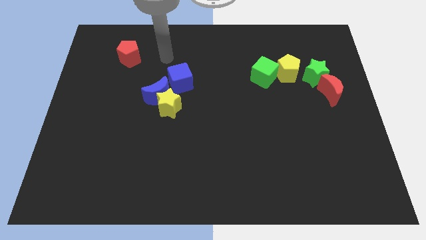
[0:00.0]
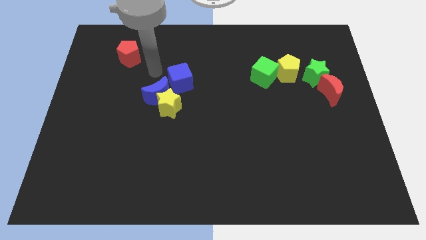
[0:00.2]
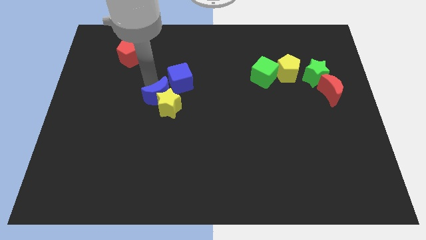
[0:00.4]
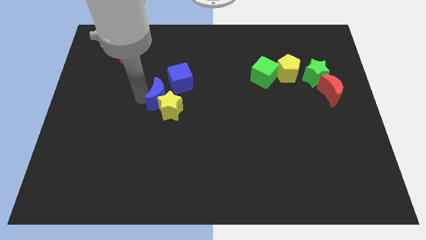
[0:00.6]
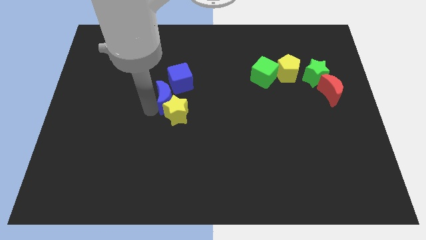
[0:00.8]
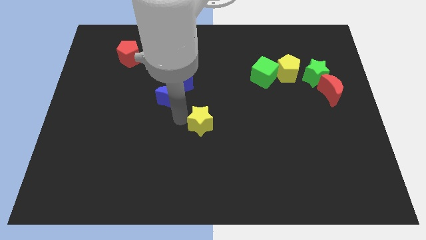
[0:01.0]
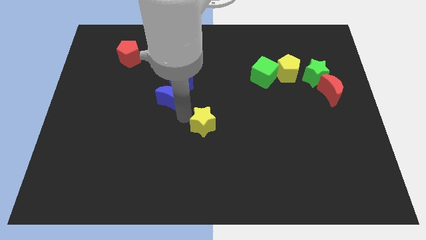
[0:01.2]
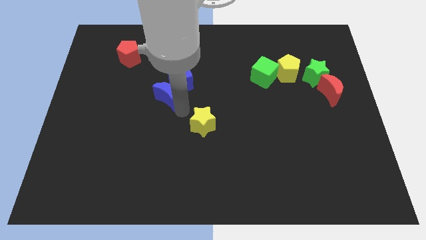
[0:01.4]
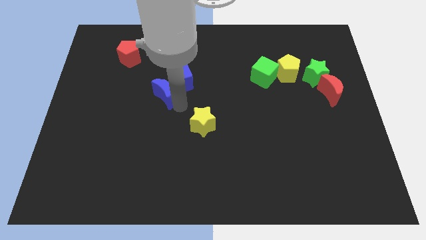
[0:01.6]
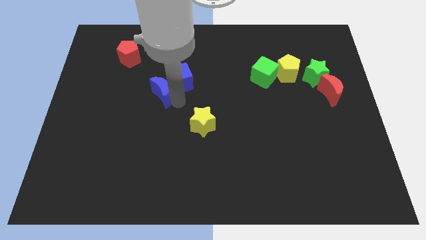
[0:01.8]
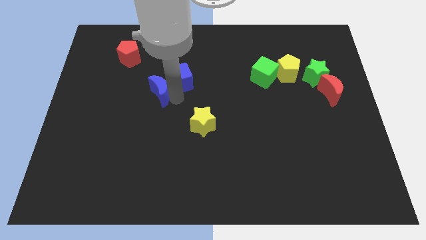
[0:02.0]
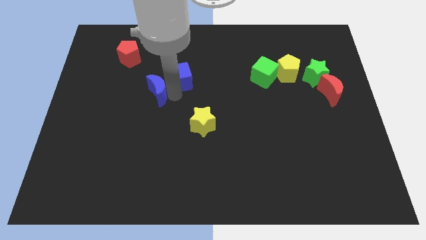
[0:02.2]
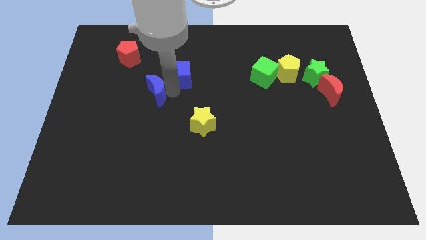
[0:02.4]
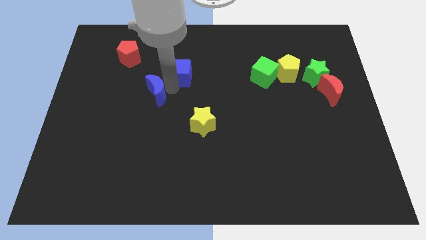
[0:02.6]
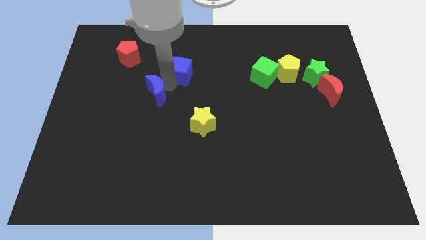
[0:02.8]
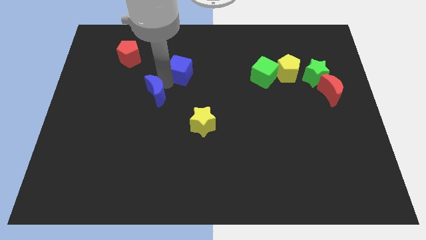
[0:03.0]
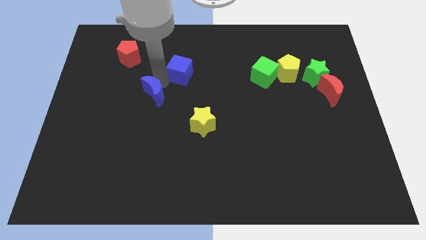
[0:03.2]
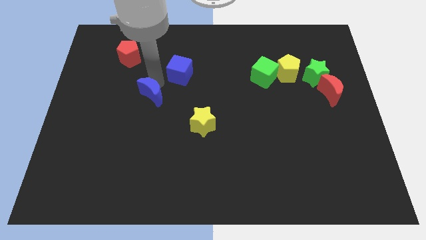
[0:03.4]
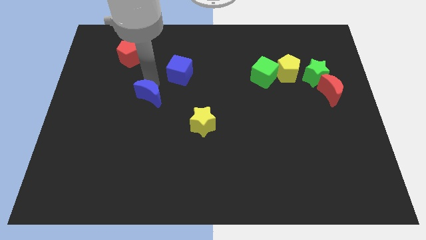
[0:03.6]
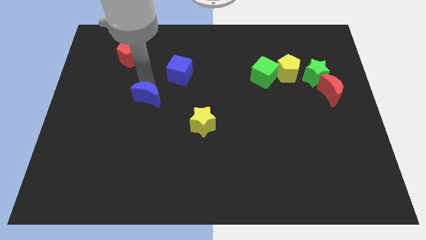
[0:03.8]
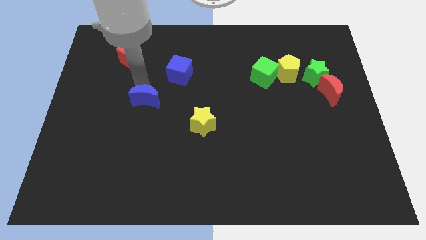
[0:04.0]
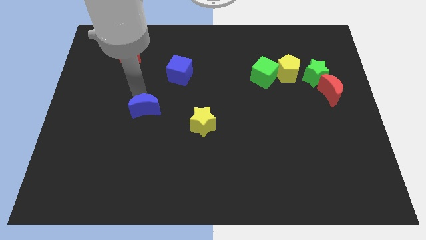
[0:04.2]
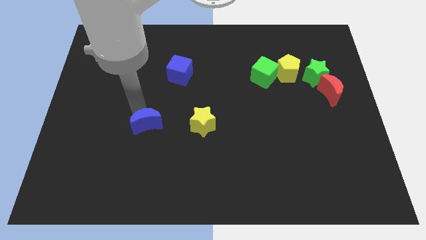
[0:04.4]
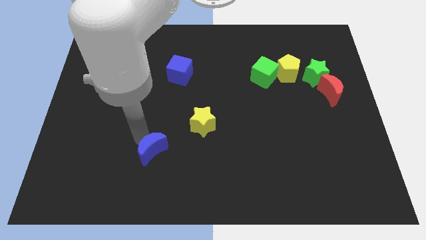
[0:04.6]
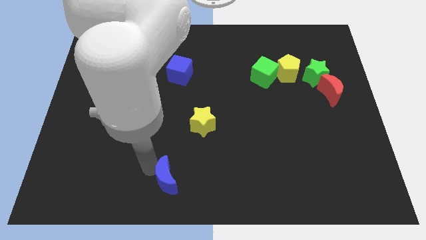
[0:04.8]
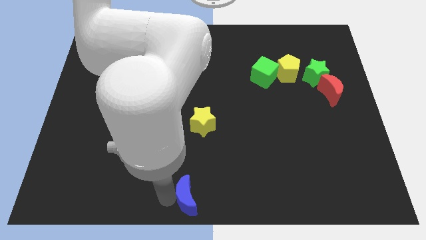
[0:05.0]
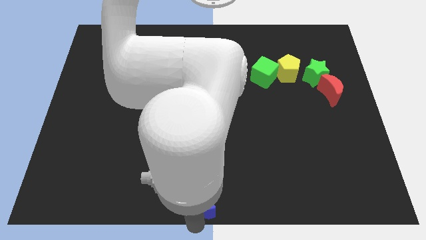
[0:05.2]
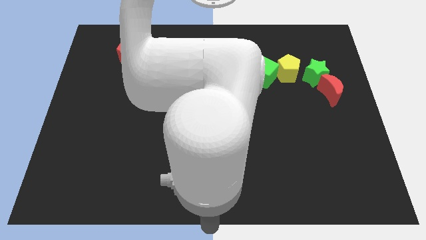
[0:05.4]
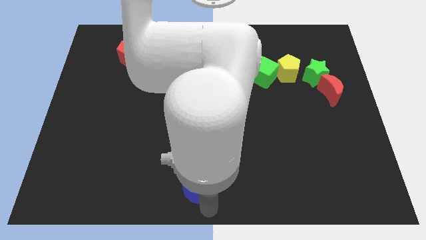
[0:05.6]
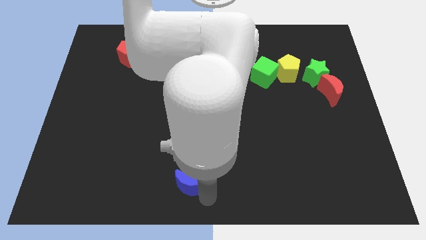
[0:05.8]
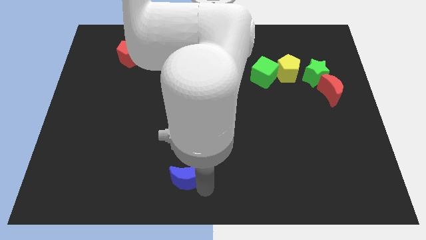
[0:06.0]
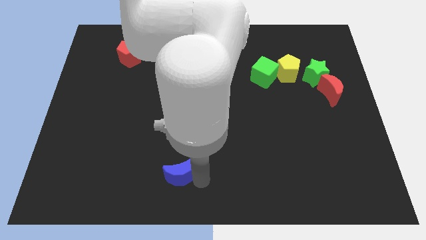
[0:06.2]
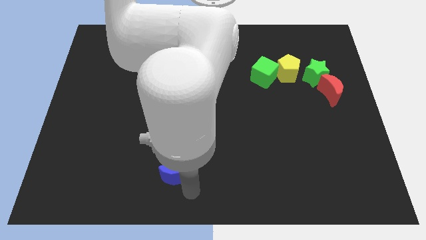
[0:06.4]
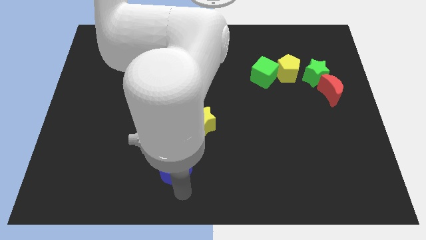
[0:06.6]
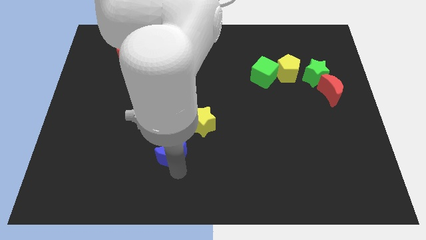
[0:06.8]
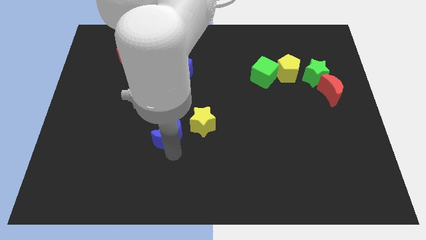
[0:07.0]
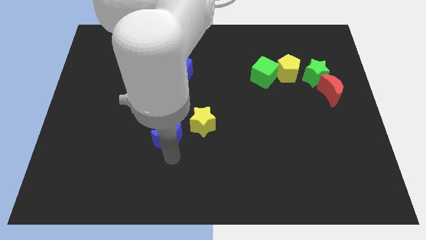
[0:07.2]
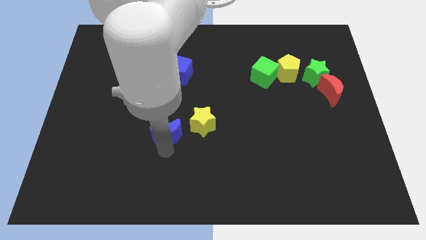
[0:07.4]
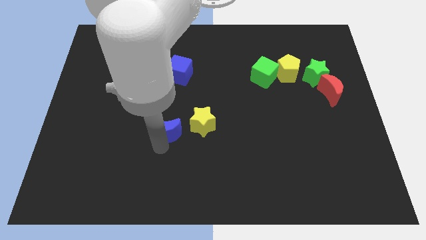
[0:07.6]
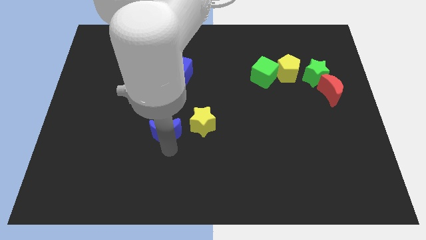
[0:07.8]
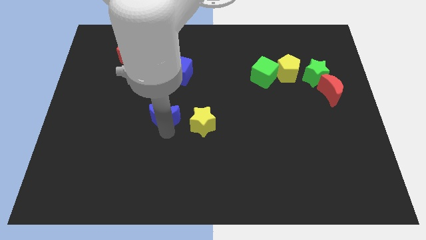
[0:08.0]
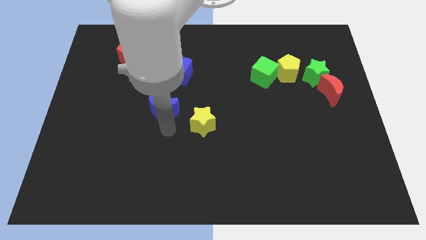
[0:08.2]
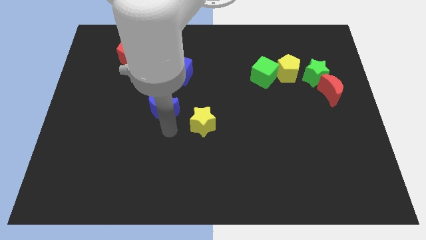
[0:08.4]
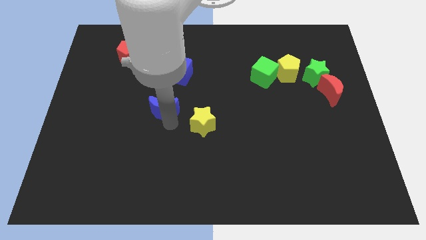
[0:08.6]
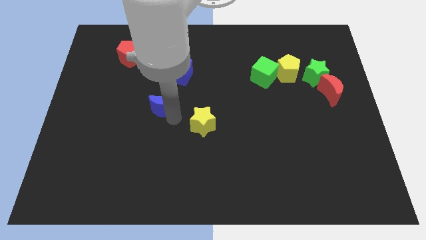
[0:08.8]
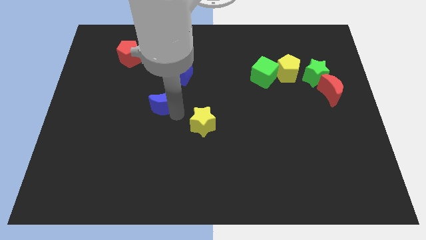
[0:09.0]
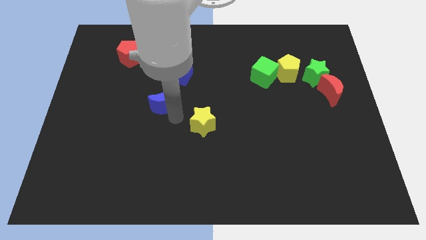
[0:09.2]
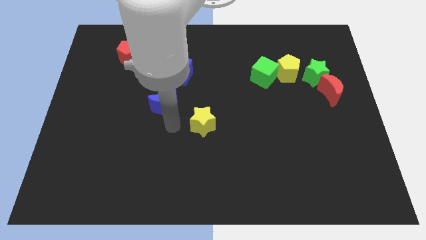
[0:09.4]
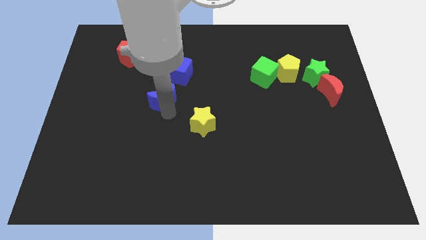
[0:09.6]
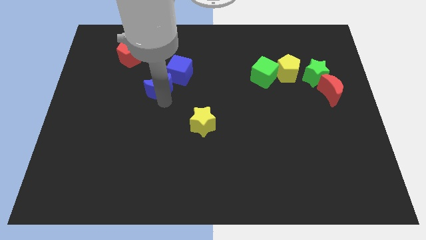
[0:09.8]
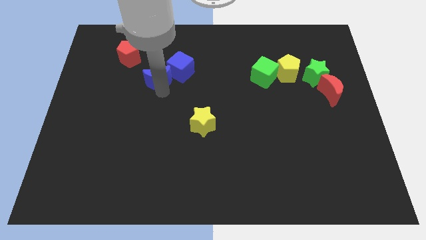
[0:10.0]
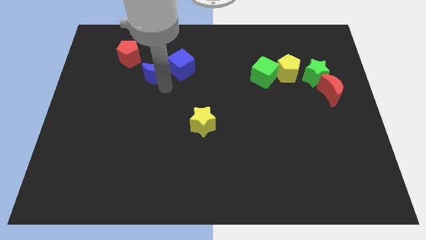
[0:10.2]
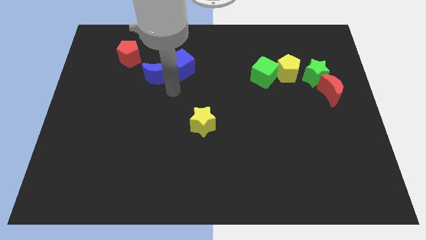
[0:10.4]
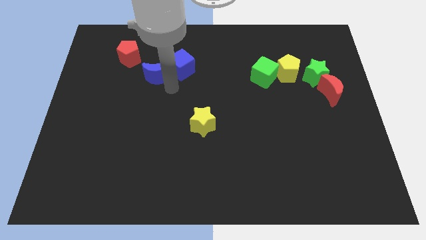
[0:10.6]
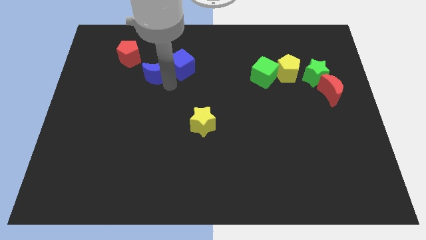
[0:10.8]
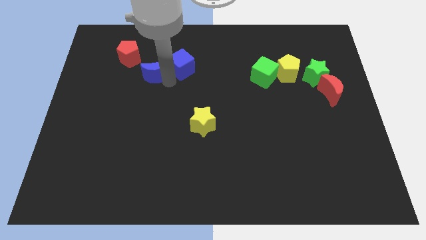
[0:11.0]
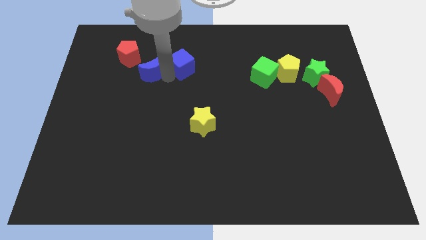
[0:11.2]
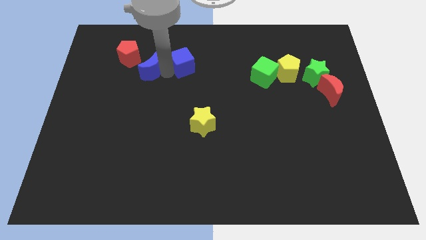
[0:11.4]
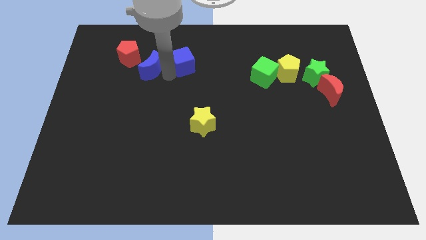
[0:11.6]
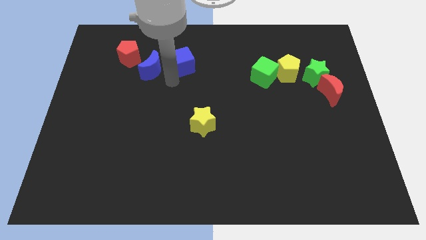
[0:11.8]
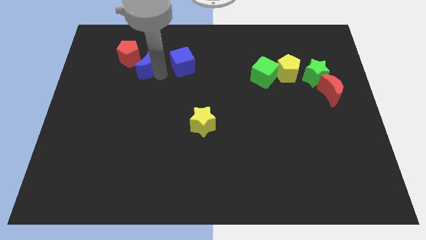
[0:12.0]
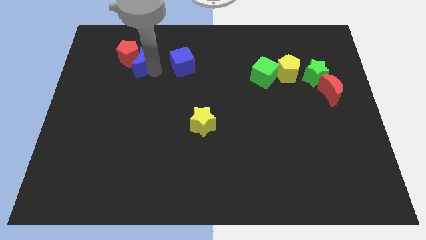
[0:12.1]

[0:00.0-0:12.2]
put the blue moon next to the red pentagon

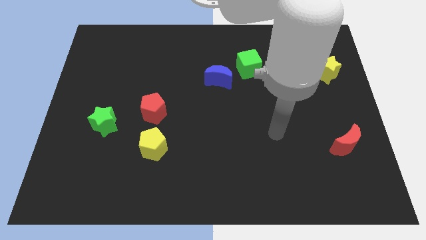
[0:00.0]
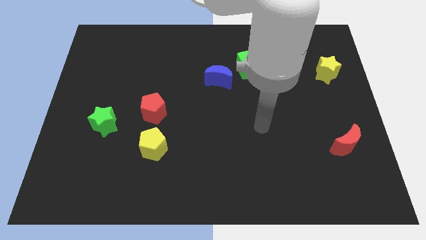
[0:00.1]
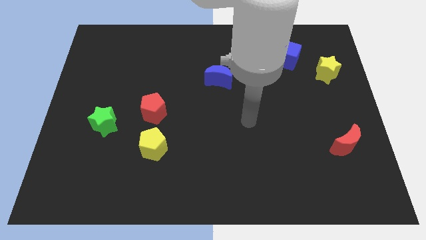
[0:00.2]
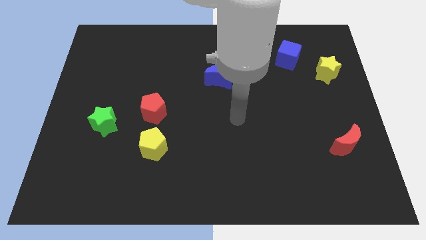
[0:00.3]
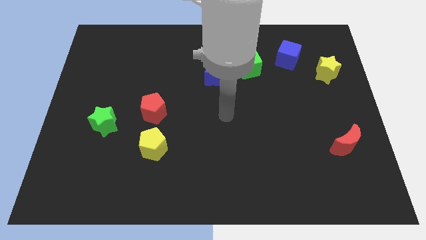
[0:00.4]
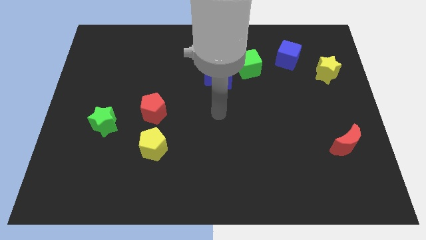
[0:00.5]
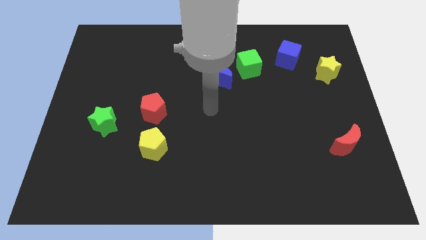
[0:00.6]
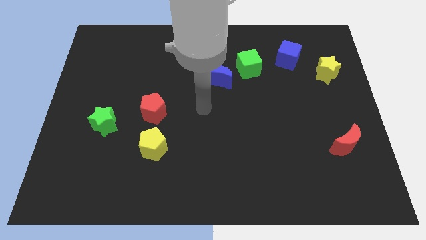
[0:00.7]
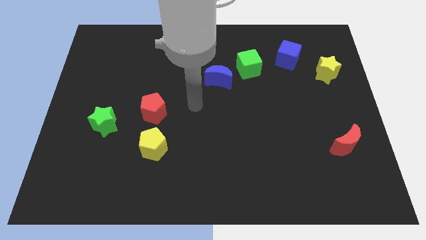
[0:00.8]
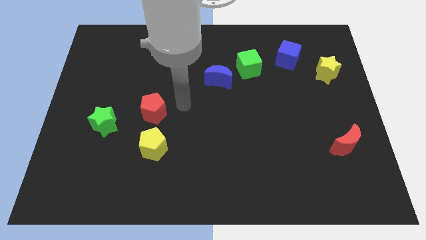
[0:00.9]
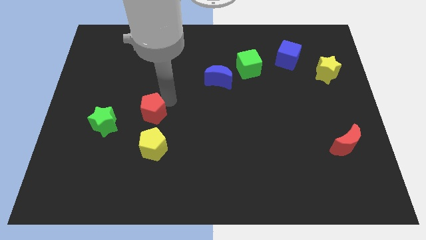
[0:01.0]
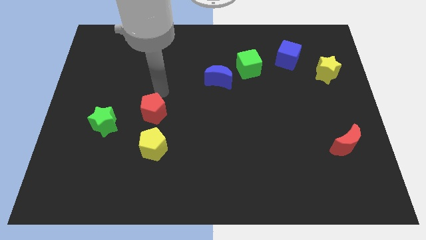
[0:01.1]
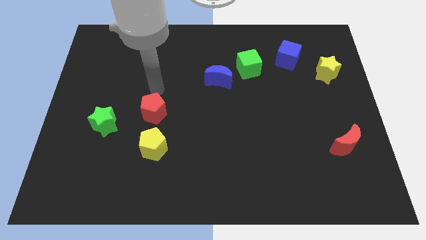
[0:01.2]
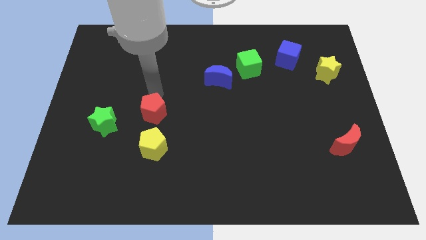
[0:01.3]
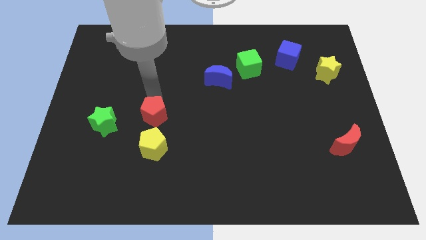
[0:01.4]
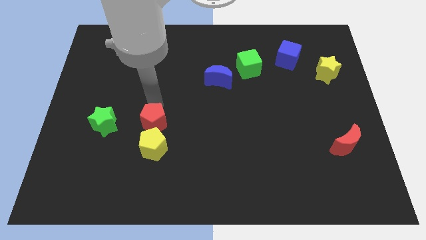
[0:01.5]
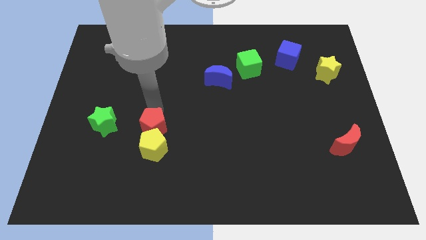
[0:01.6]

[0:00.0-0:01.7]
move the red pentagon close to the yellow pentagon
